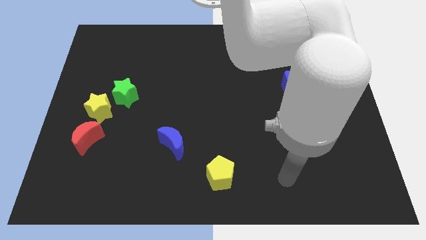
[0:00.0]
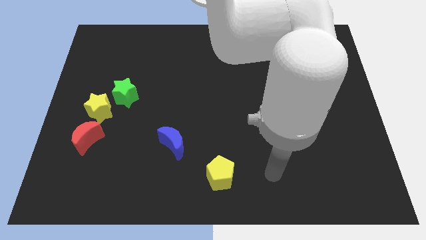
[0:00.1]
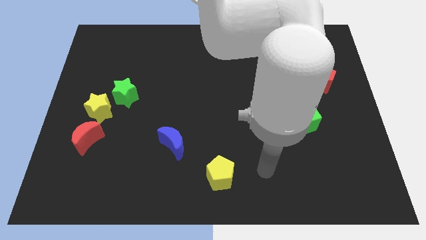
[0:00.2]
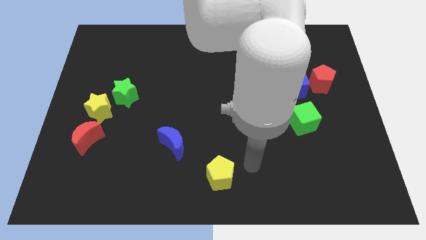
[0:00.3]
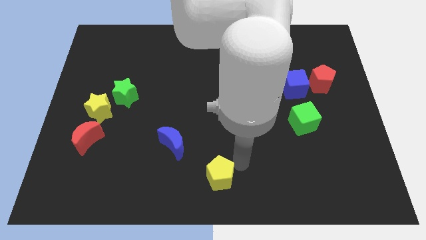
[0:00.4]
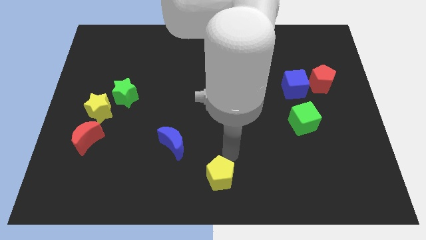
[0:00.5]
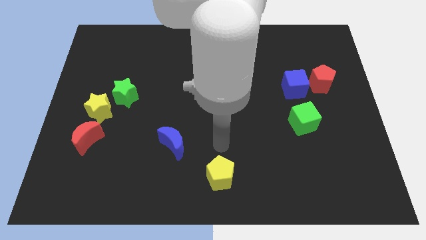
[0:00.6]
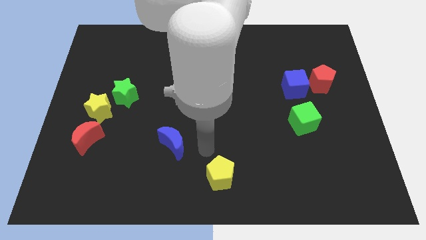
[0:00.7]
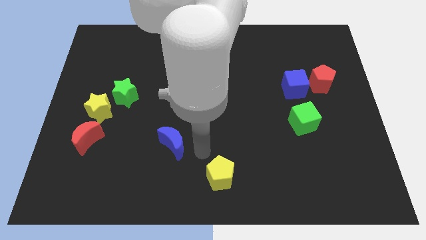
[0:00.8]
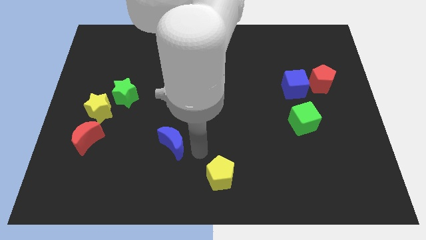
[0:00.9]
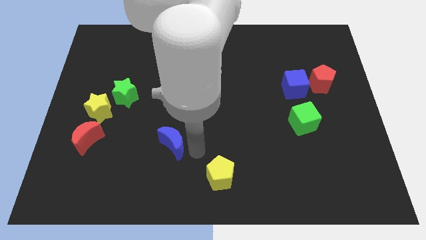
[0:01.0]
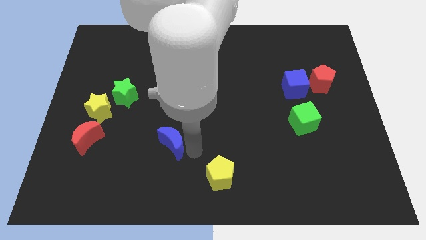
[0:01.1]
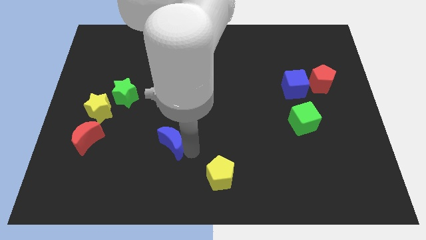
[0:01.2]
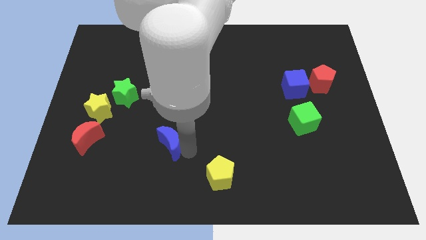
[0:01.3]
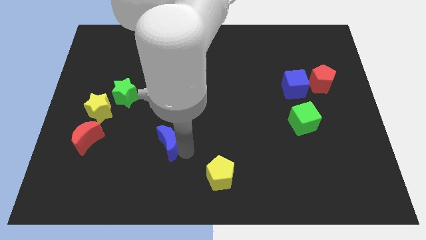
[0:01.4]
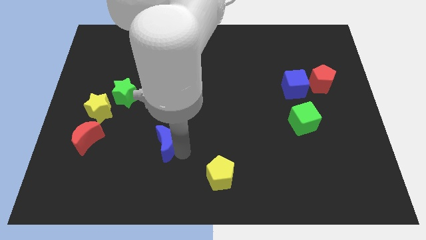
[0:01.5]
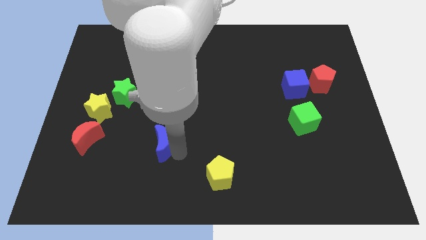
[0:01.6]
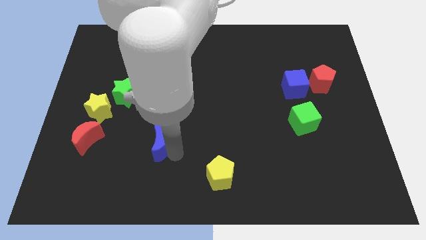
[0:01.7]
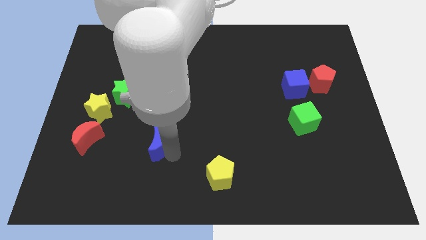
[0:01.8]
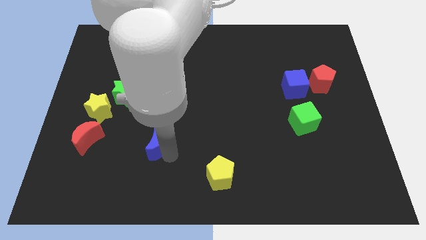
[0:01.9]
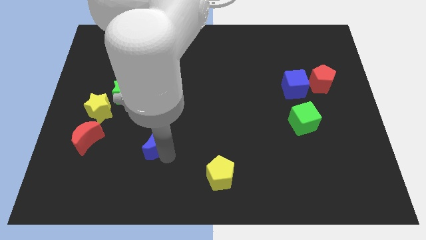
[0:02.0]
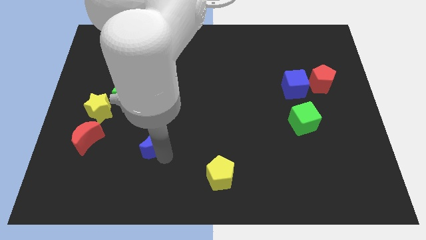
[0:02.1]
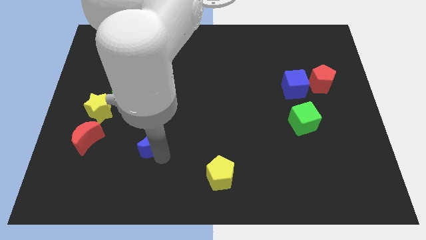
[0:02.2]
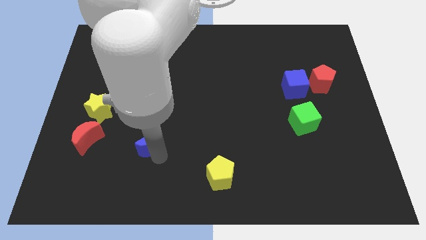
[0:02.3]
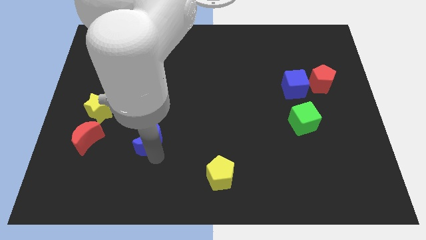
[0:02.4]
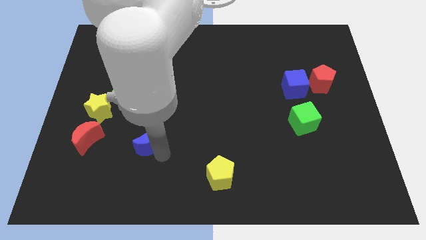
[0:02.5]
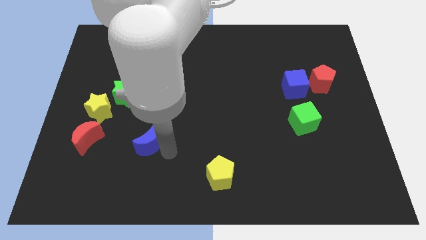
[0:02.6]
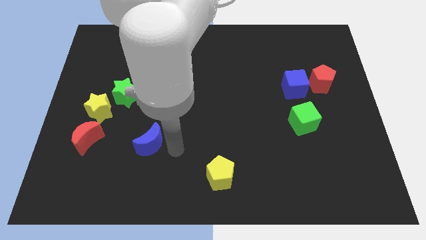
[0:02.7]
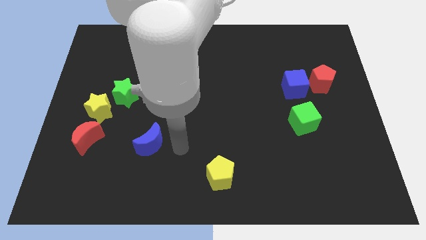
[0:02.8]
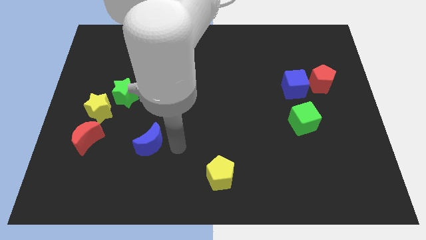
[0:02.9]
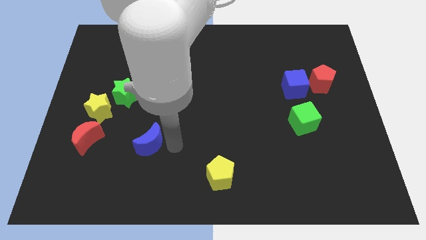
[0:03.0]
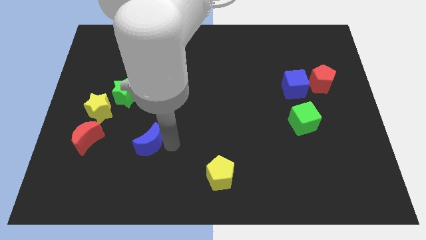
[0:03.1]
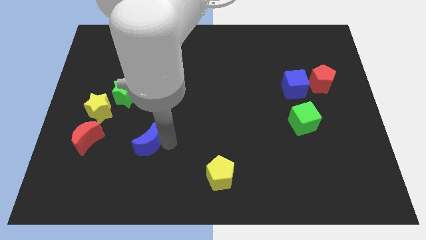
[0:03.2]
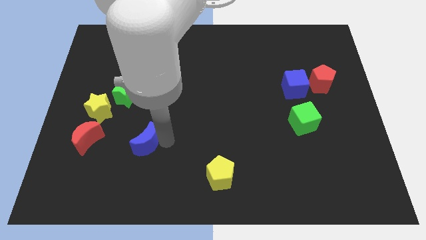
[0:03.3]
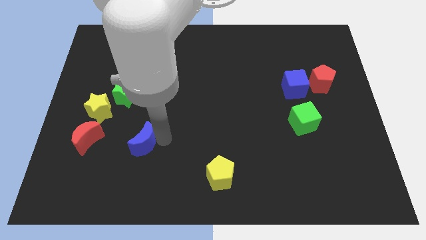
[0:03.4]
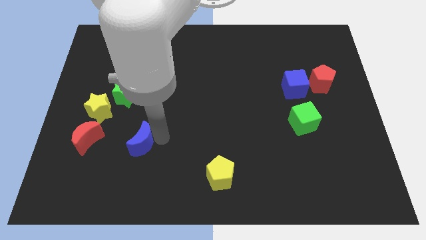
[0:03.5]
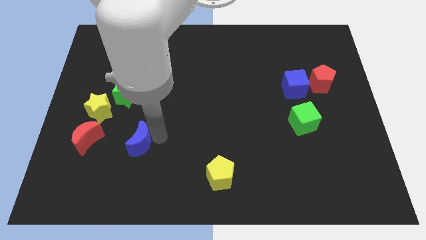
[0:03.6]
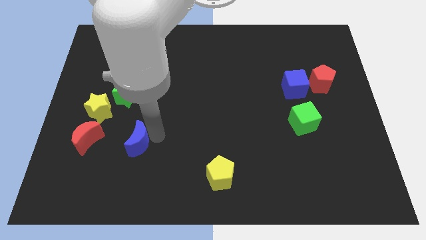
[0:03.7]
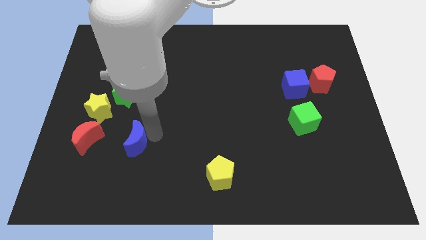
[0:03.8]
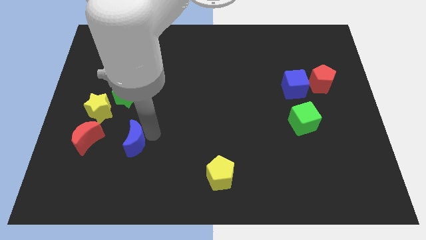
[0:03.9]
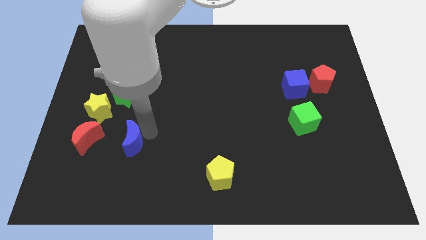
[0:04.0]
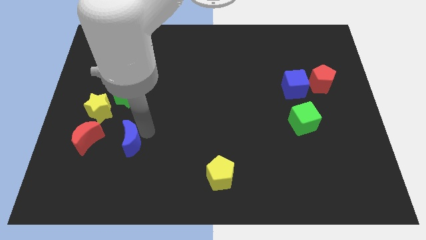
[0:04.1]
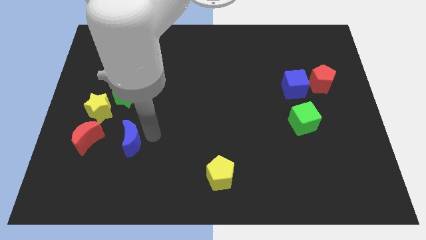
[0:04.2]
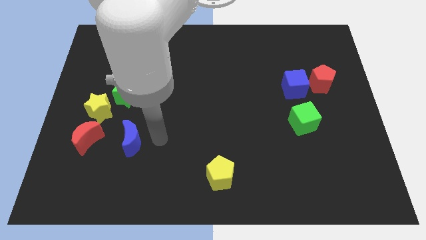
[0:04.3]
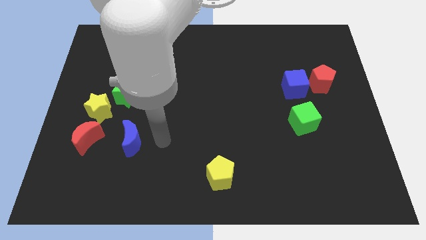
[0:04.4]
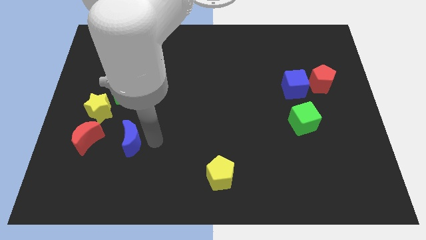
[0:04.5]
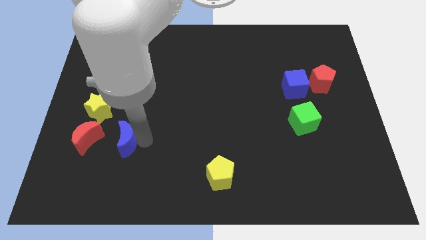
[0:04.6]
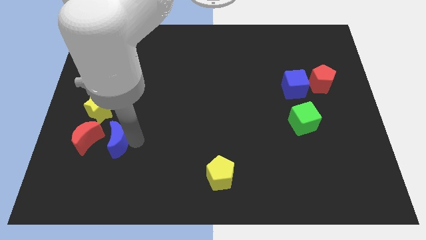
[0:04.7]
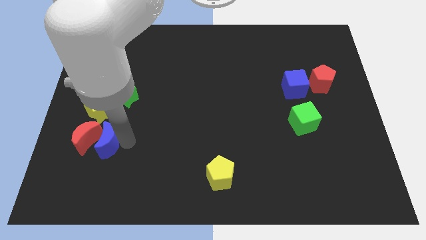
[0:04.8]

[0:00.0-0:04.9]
slide the blue moon to the red moon

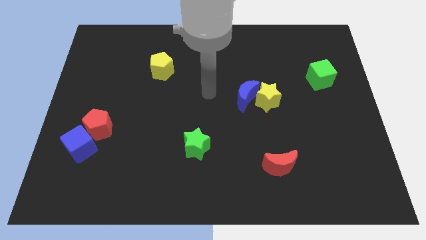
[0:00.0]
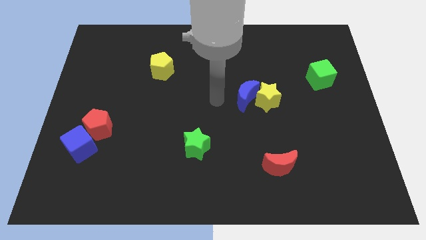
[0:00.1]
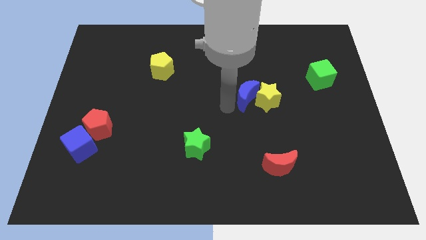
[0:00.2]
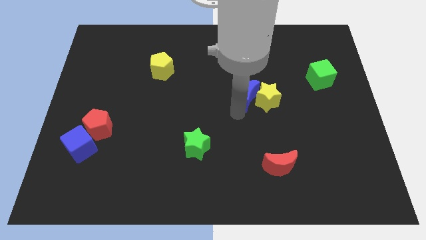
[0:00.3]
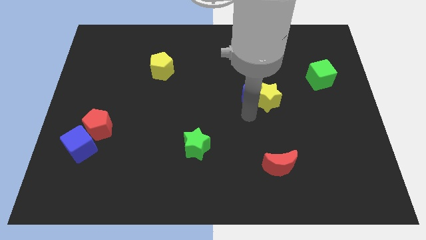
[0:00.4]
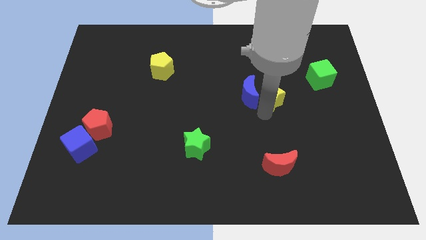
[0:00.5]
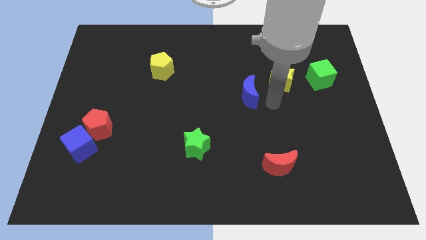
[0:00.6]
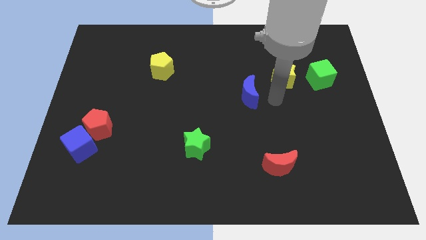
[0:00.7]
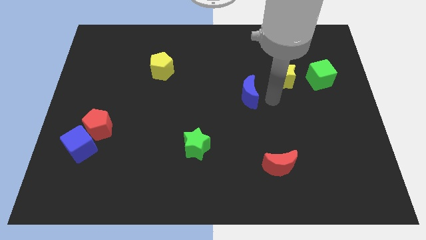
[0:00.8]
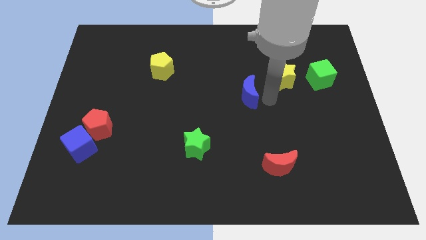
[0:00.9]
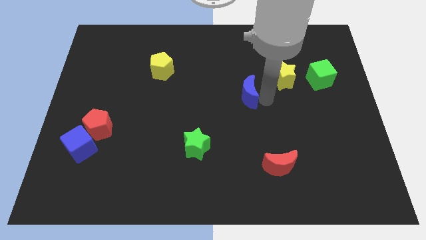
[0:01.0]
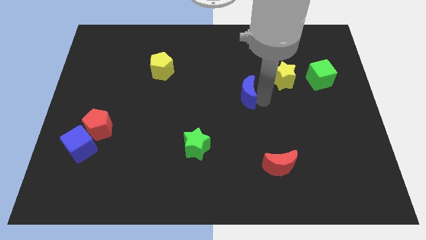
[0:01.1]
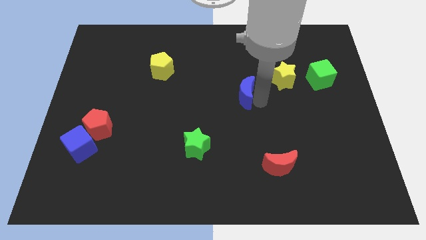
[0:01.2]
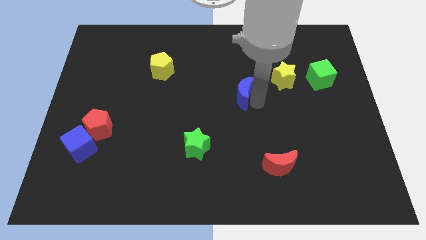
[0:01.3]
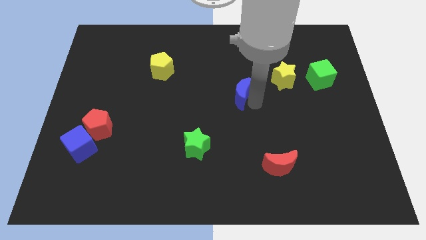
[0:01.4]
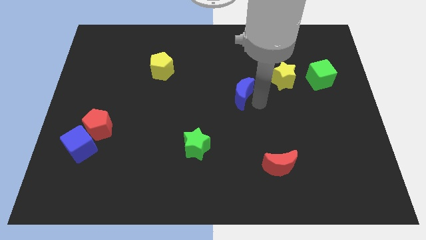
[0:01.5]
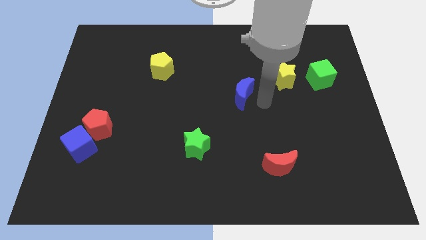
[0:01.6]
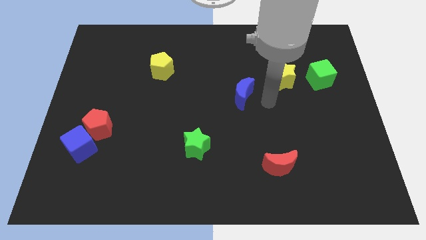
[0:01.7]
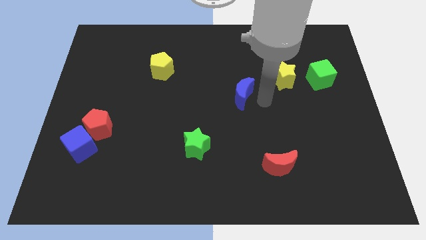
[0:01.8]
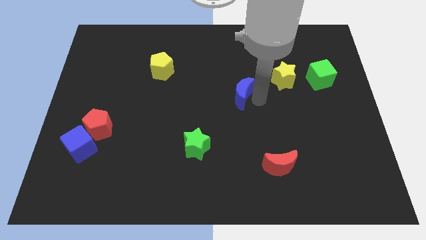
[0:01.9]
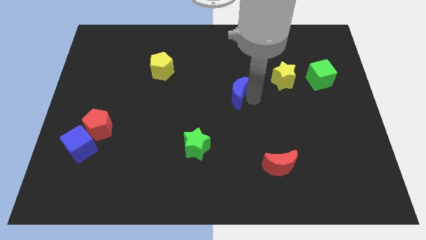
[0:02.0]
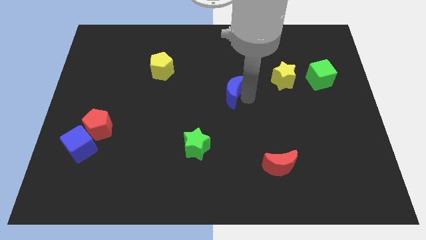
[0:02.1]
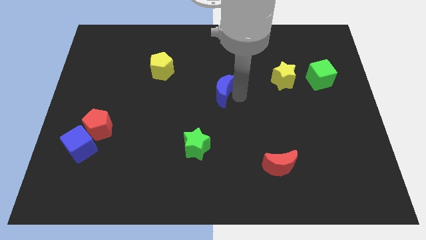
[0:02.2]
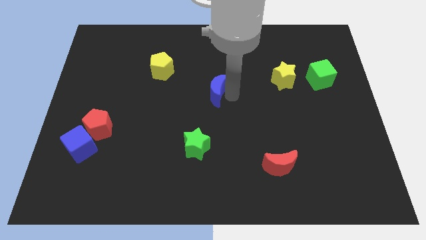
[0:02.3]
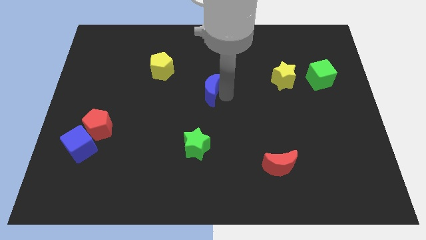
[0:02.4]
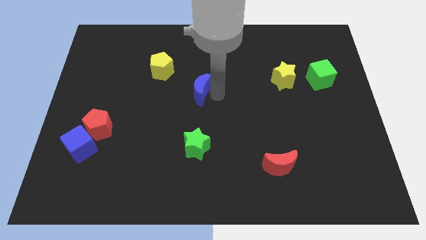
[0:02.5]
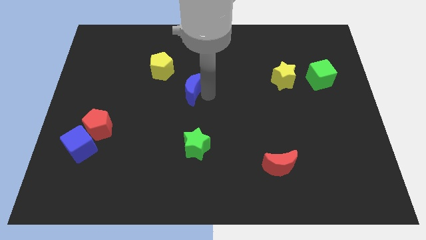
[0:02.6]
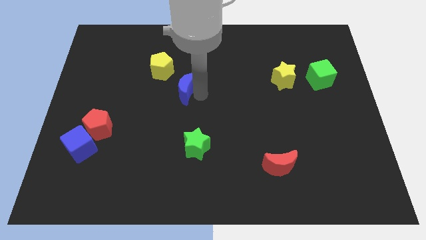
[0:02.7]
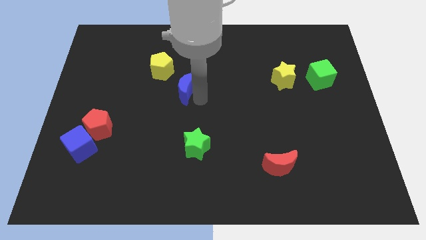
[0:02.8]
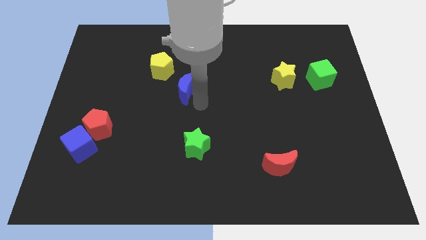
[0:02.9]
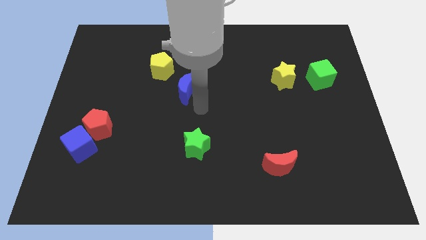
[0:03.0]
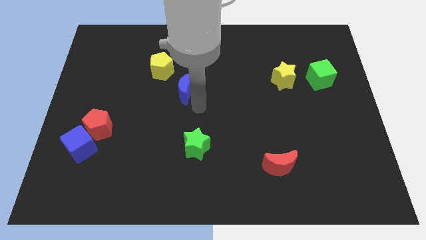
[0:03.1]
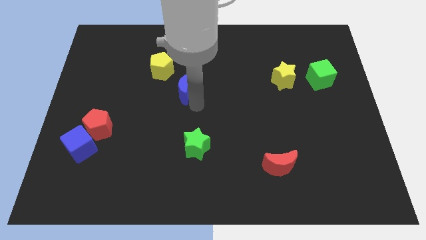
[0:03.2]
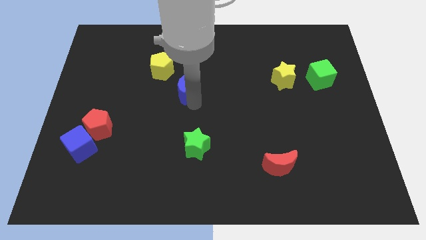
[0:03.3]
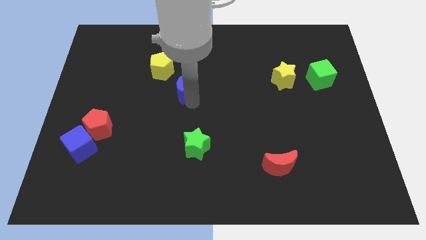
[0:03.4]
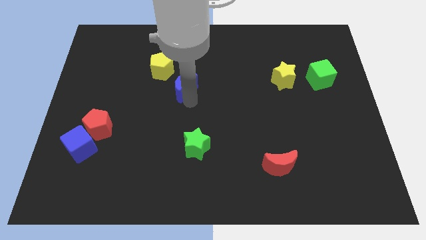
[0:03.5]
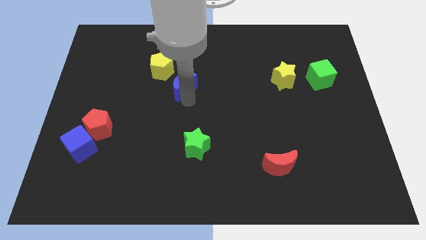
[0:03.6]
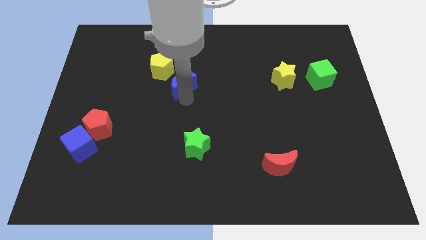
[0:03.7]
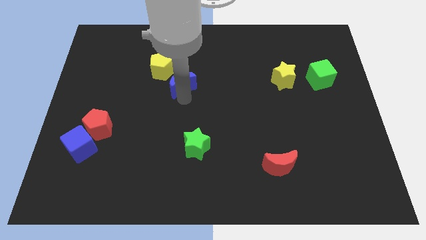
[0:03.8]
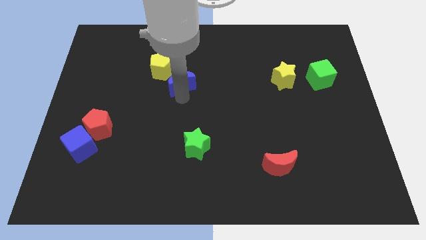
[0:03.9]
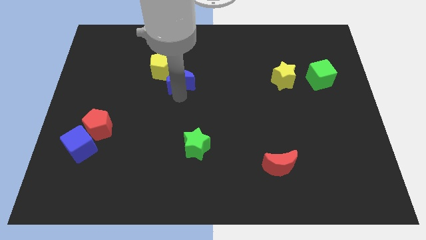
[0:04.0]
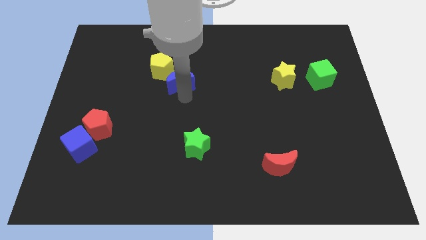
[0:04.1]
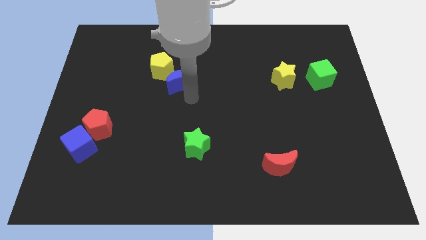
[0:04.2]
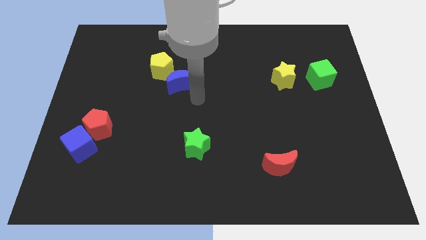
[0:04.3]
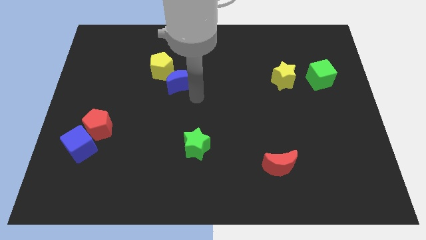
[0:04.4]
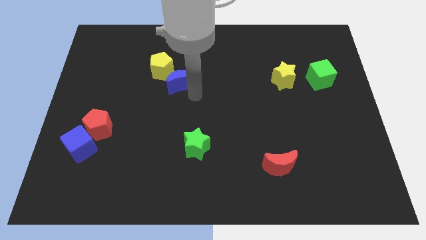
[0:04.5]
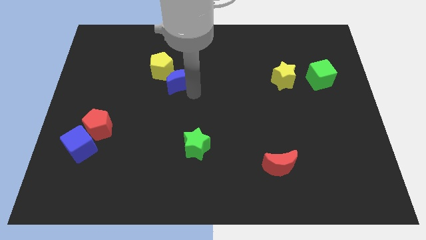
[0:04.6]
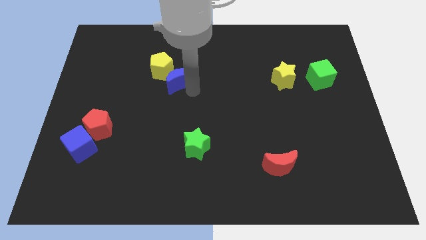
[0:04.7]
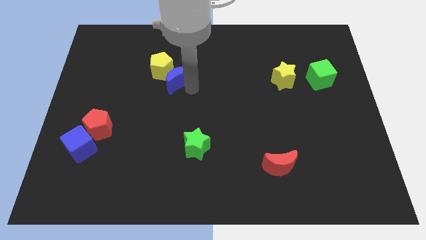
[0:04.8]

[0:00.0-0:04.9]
move the blue moon next to the yellow pentagon
